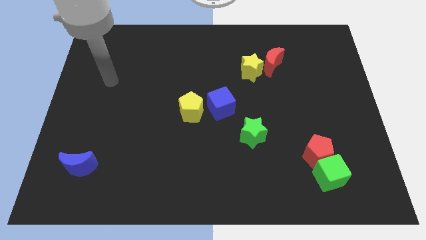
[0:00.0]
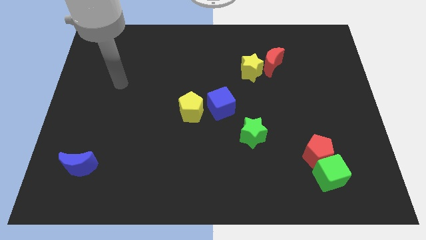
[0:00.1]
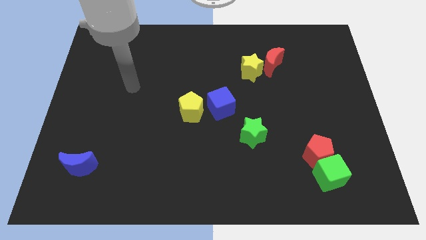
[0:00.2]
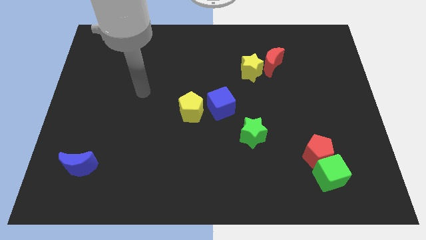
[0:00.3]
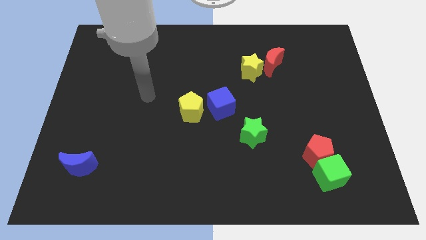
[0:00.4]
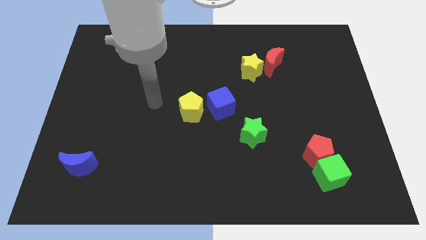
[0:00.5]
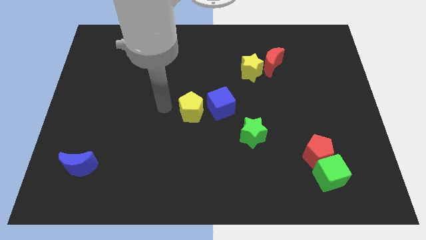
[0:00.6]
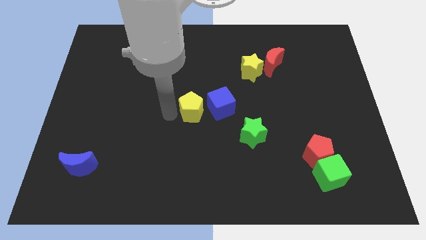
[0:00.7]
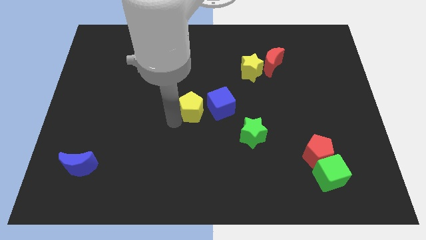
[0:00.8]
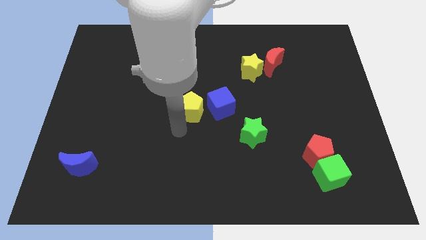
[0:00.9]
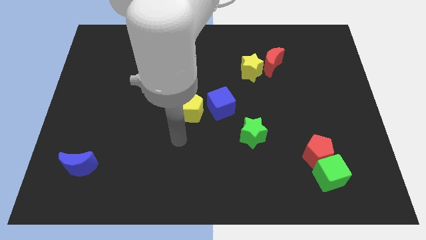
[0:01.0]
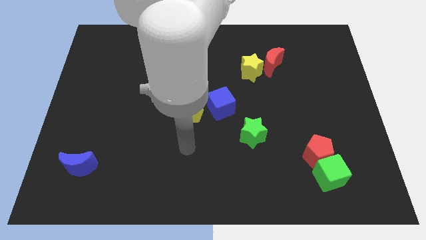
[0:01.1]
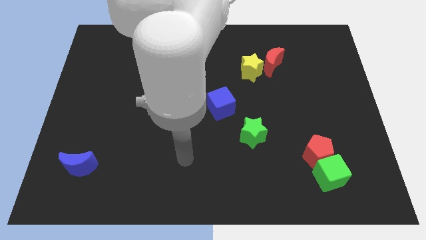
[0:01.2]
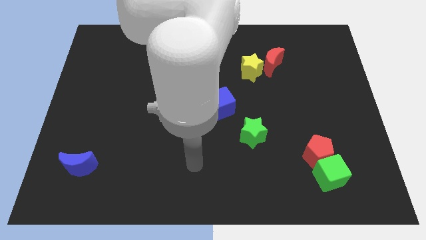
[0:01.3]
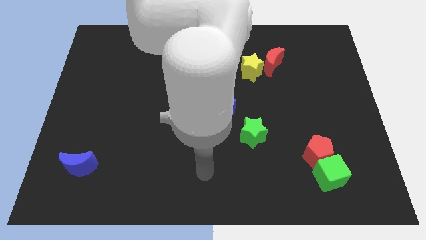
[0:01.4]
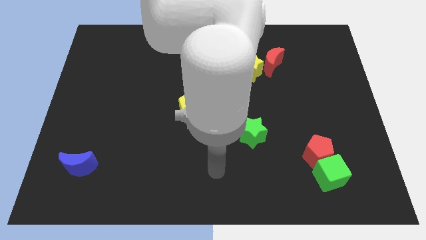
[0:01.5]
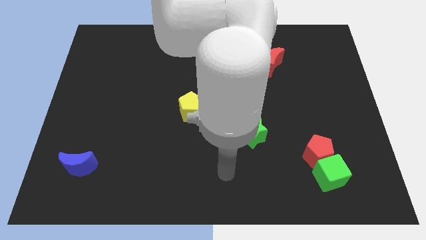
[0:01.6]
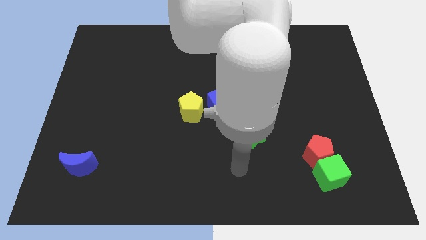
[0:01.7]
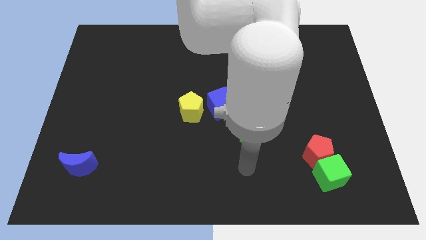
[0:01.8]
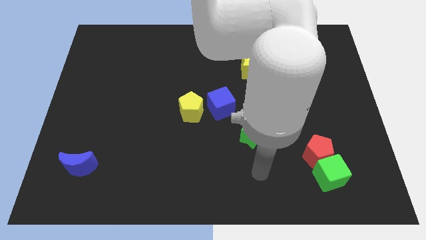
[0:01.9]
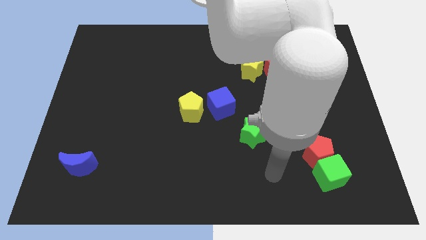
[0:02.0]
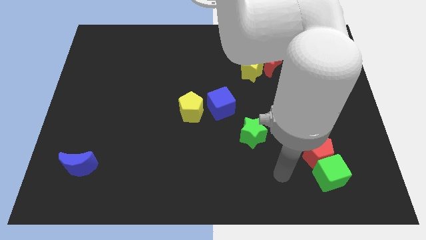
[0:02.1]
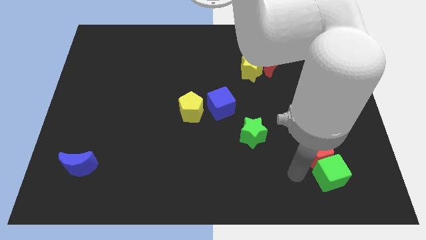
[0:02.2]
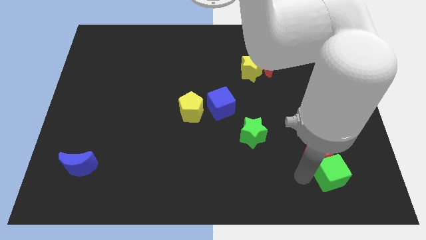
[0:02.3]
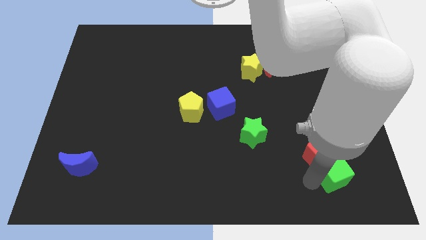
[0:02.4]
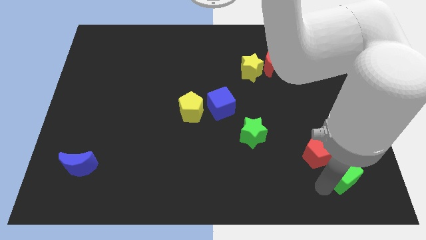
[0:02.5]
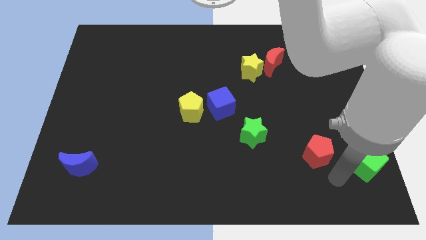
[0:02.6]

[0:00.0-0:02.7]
separate the red pentagon from the green cube

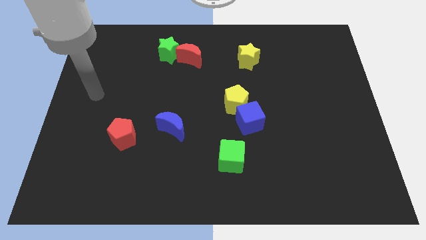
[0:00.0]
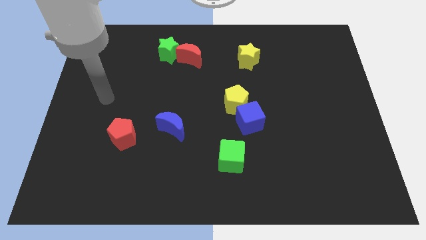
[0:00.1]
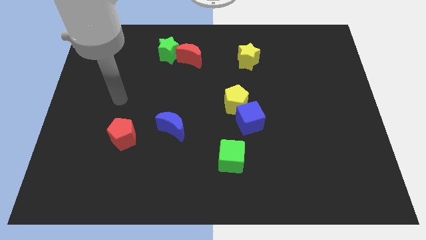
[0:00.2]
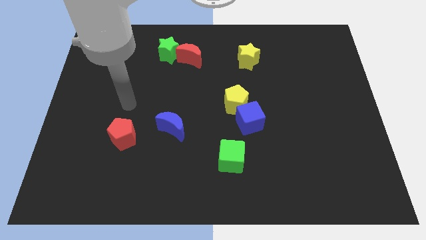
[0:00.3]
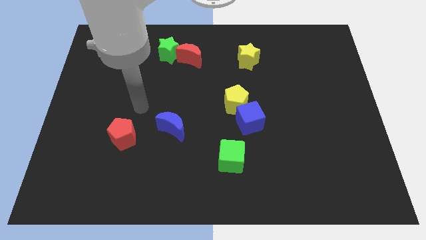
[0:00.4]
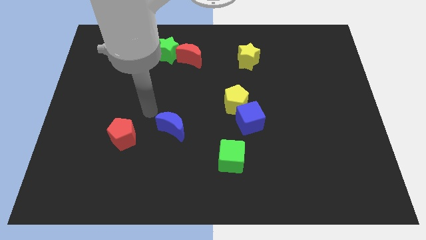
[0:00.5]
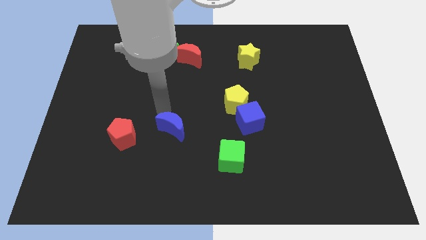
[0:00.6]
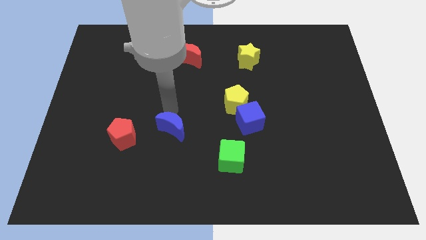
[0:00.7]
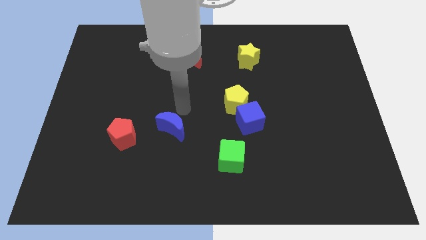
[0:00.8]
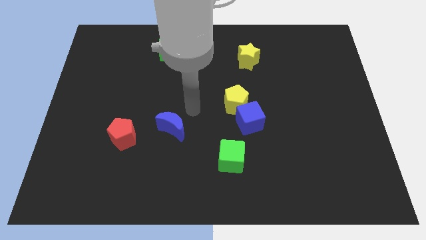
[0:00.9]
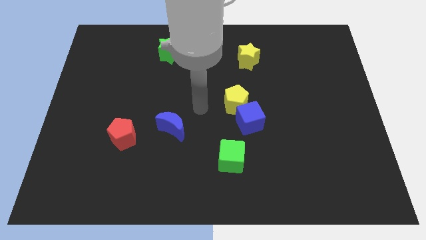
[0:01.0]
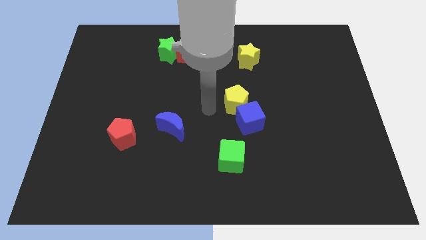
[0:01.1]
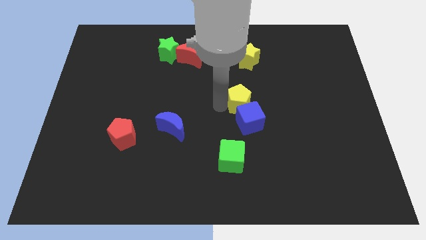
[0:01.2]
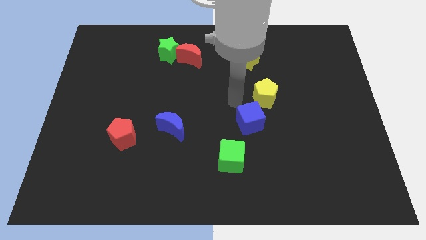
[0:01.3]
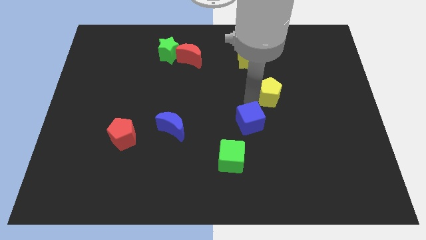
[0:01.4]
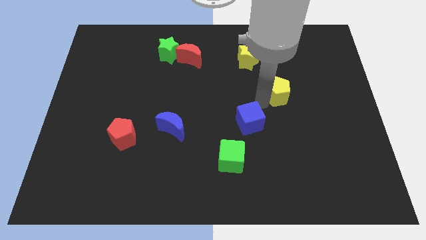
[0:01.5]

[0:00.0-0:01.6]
move the blue cube away from the yellow pentagon

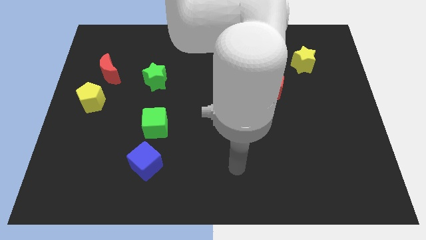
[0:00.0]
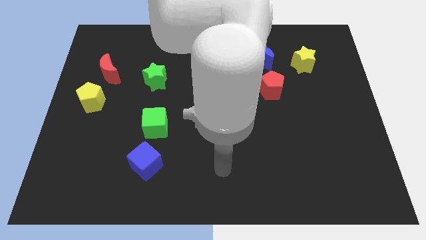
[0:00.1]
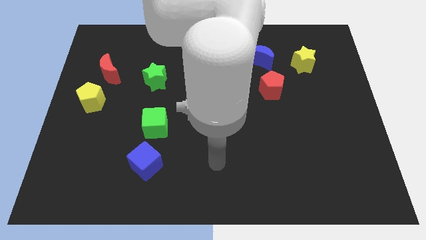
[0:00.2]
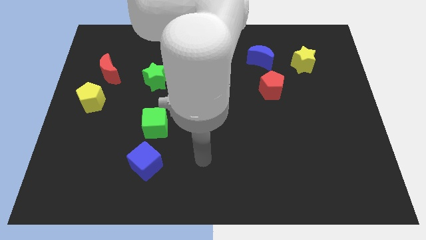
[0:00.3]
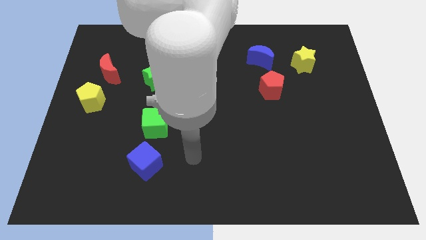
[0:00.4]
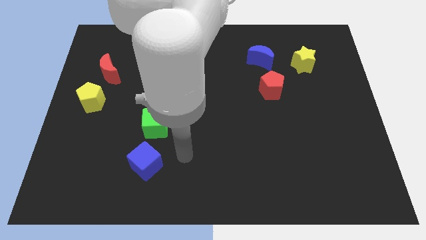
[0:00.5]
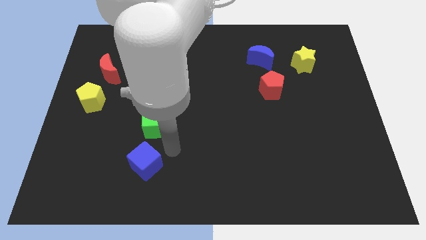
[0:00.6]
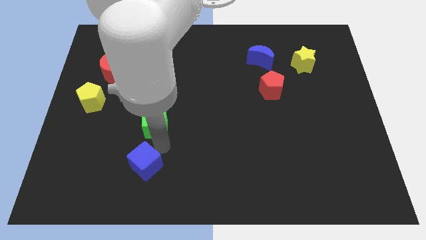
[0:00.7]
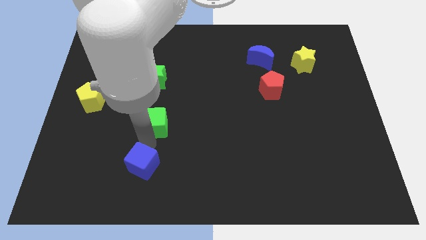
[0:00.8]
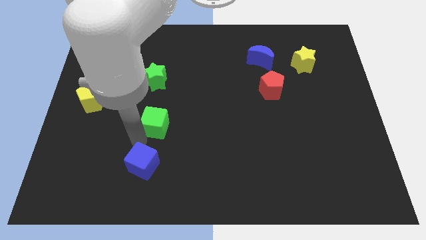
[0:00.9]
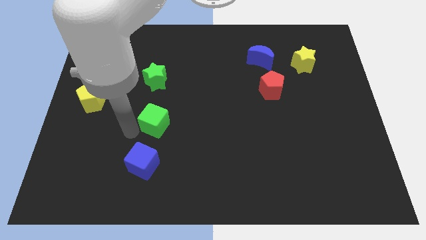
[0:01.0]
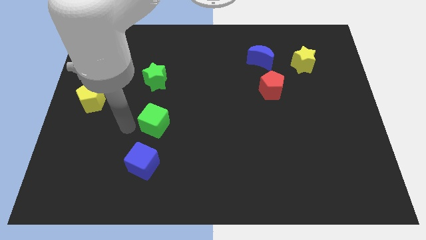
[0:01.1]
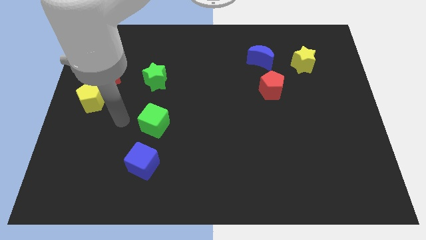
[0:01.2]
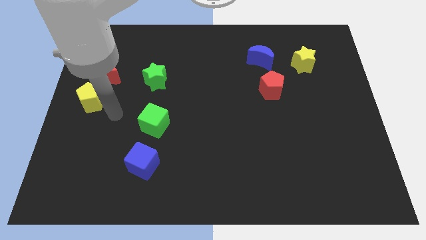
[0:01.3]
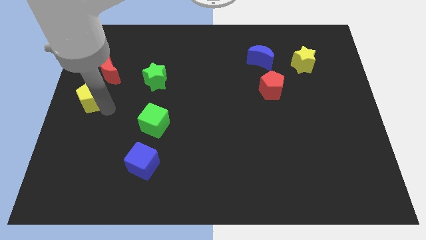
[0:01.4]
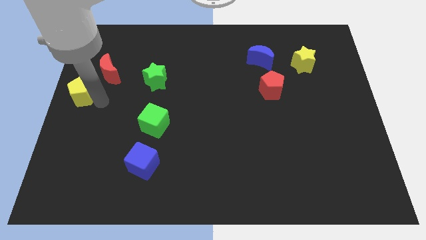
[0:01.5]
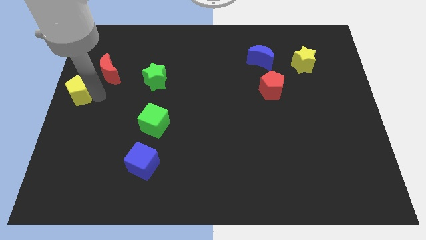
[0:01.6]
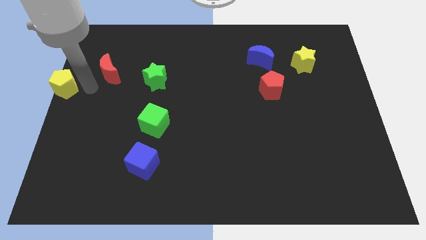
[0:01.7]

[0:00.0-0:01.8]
pull the red moon apart from the yellow pentagon

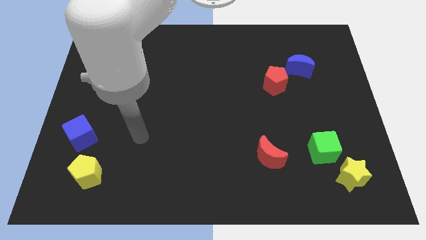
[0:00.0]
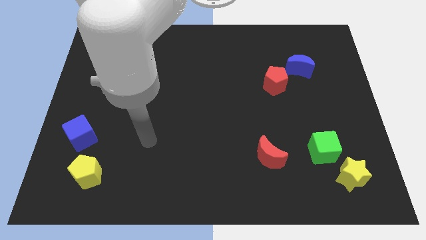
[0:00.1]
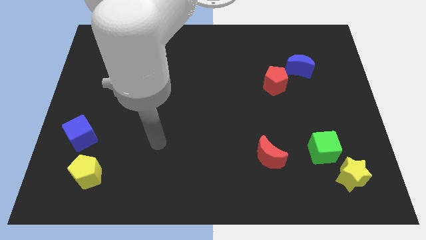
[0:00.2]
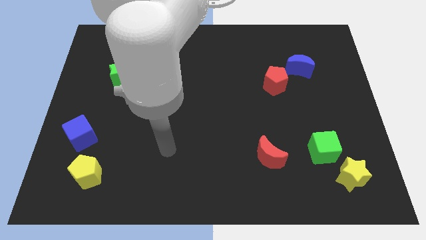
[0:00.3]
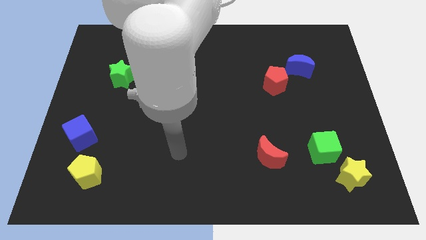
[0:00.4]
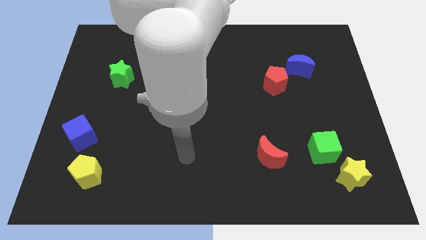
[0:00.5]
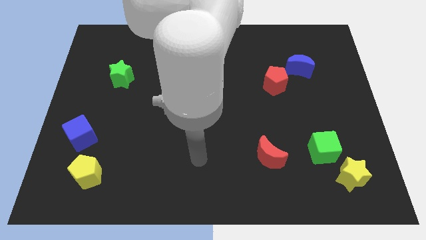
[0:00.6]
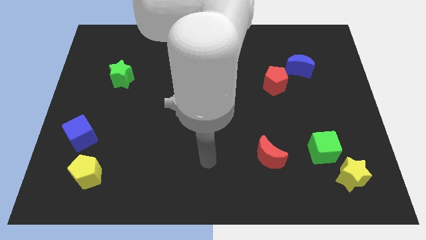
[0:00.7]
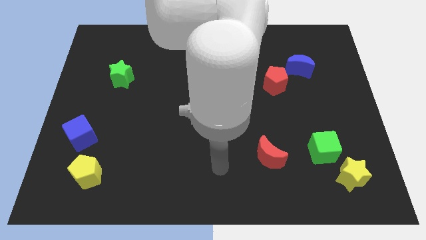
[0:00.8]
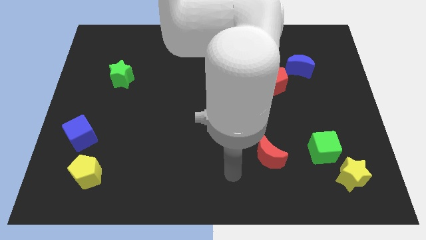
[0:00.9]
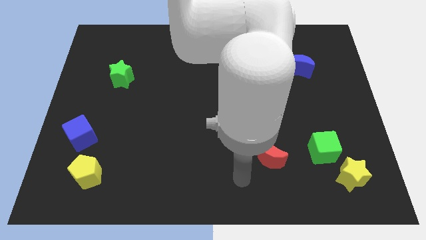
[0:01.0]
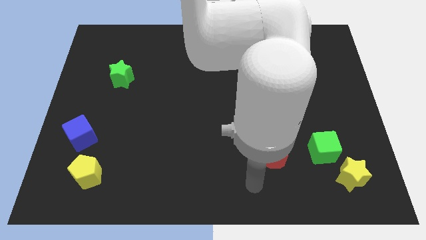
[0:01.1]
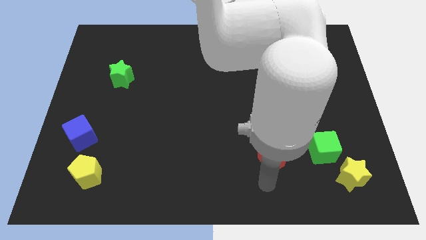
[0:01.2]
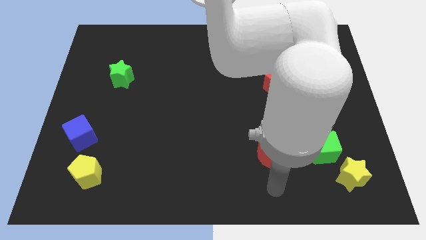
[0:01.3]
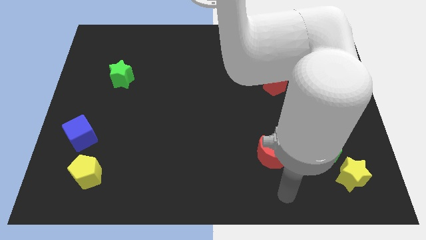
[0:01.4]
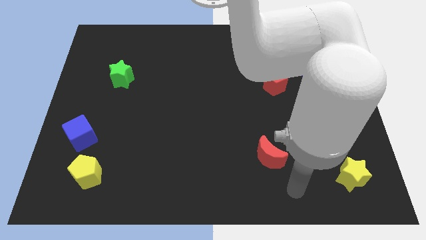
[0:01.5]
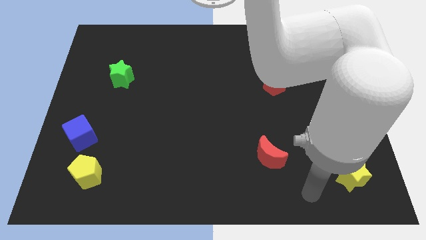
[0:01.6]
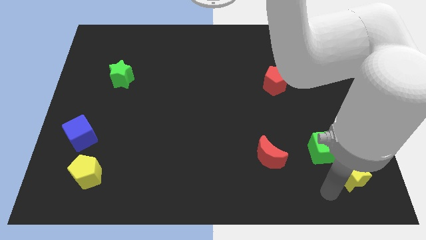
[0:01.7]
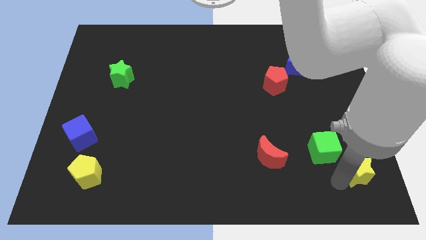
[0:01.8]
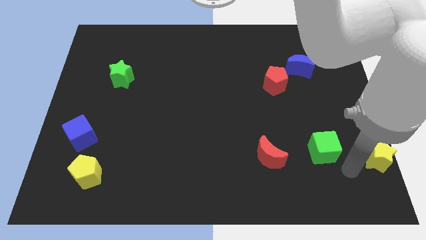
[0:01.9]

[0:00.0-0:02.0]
move the green cube away from the yellow star

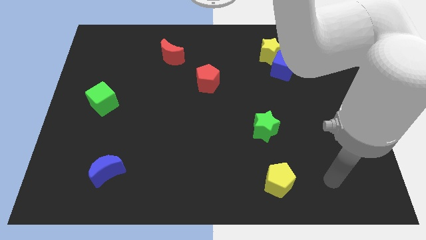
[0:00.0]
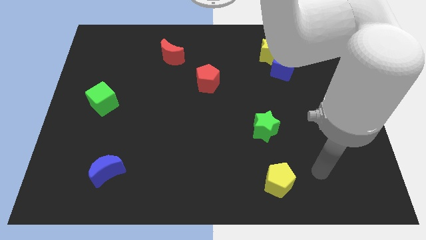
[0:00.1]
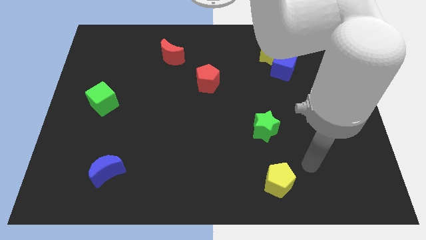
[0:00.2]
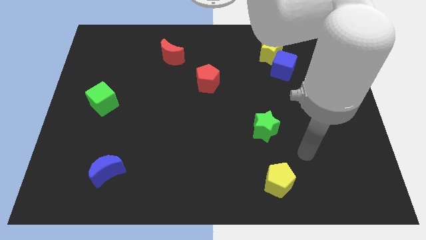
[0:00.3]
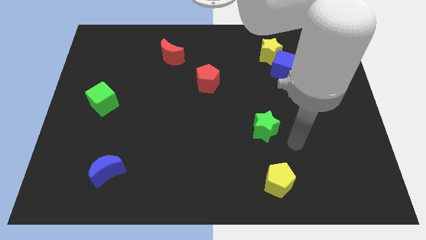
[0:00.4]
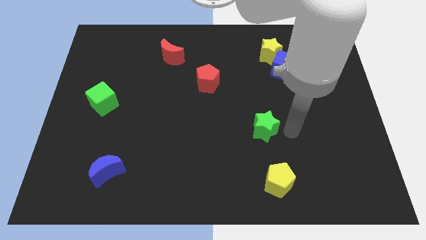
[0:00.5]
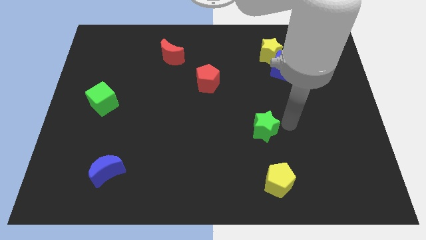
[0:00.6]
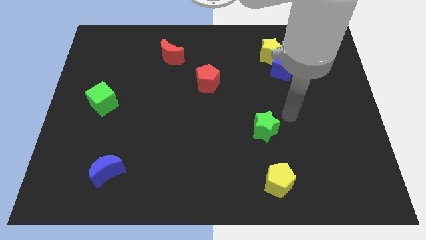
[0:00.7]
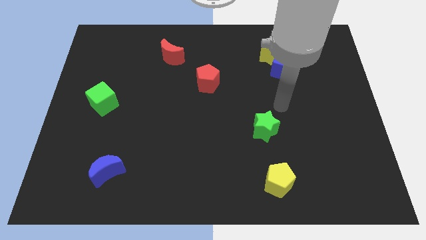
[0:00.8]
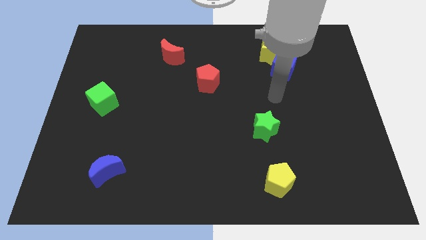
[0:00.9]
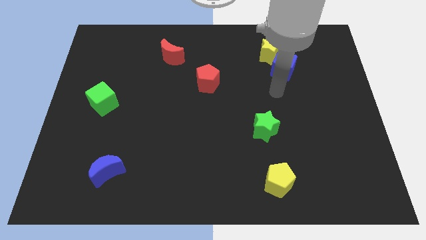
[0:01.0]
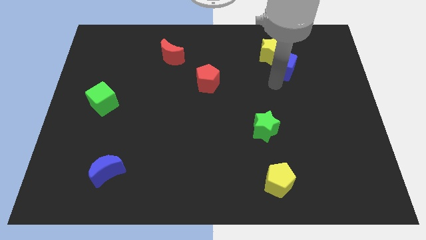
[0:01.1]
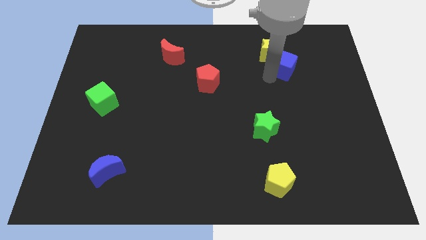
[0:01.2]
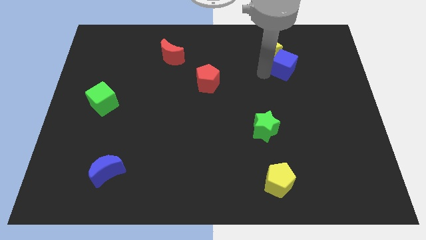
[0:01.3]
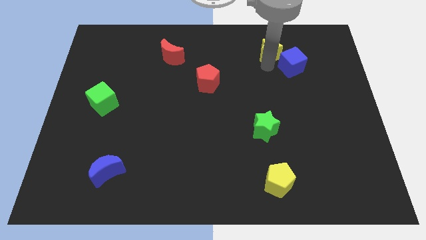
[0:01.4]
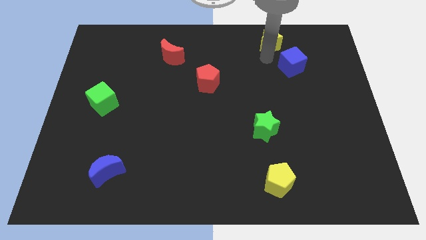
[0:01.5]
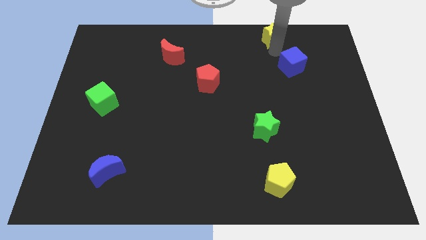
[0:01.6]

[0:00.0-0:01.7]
pull the blue cube apart from the yellow star
